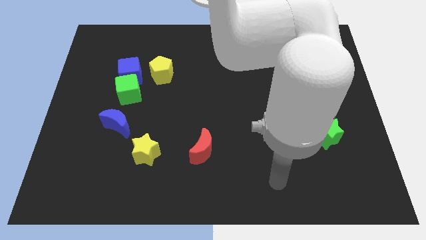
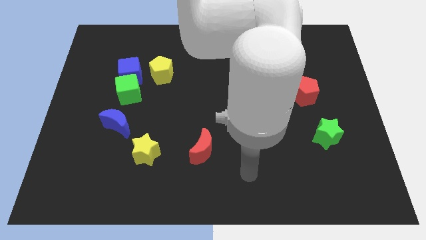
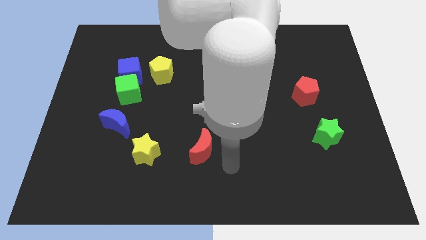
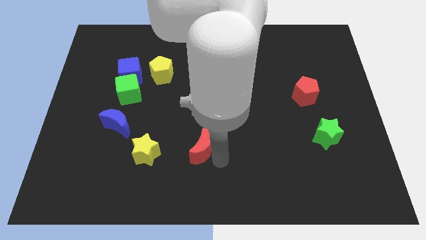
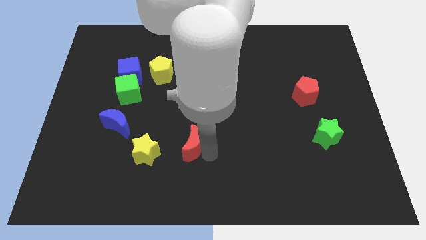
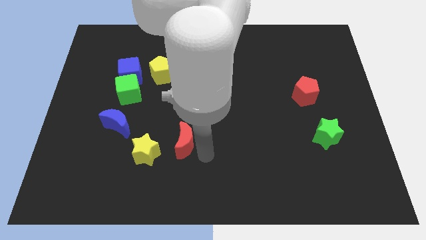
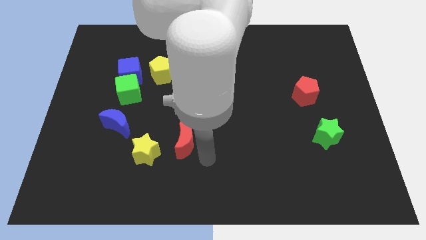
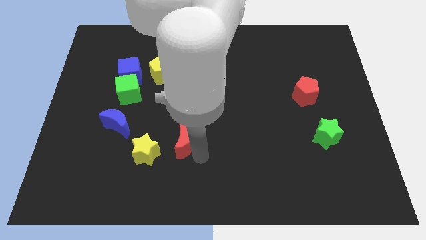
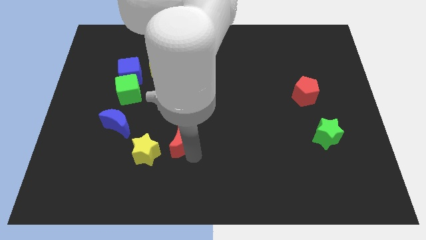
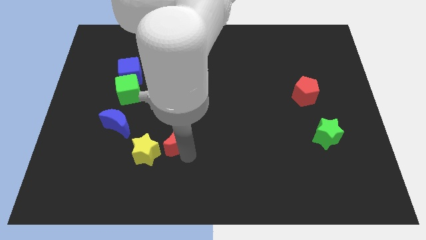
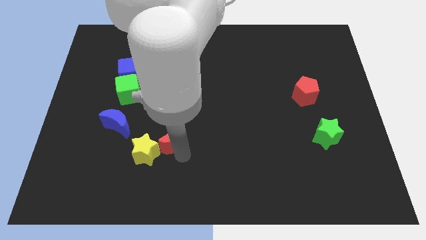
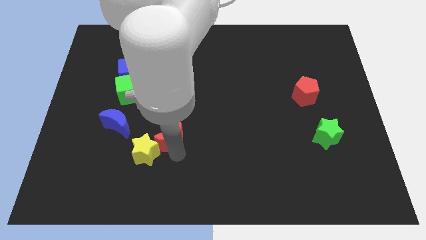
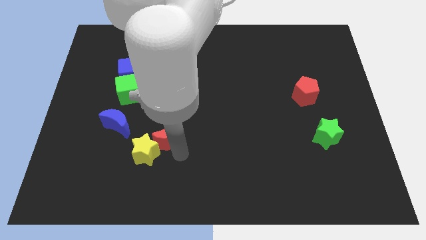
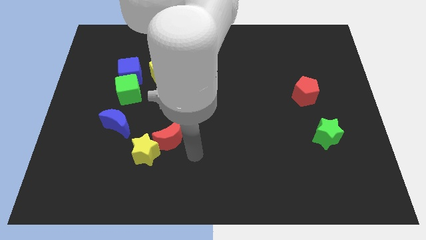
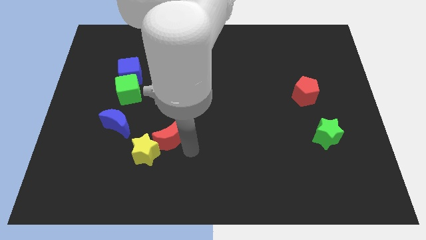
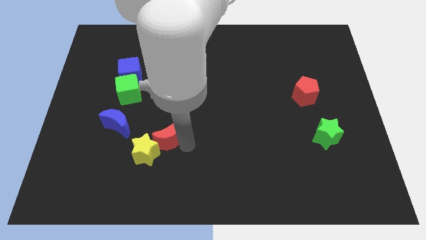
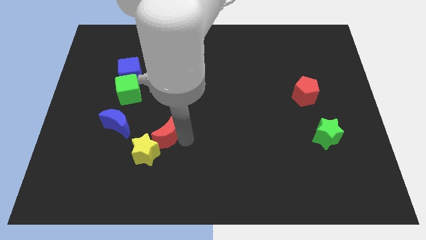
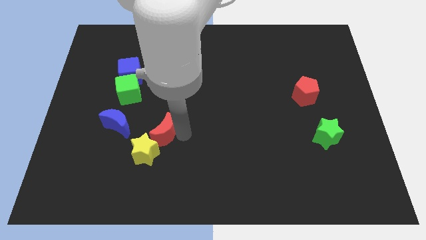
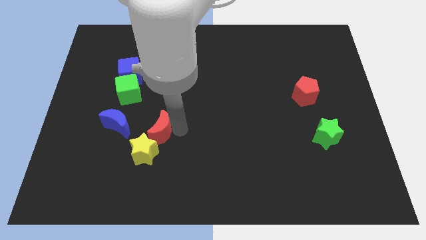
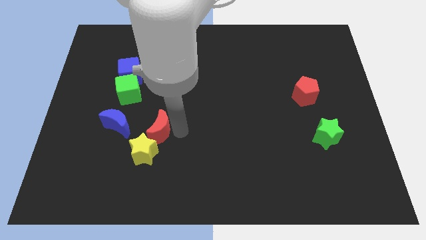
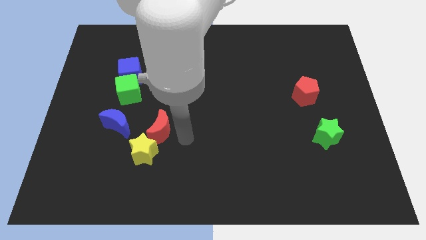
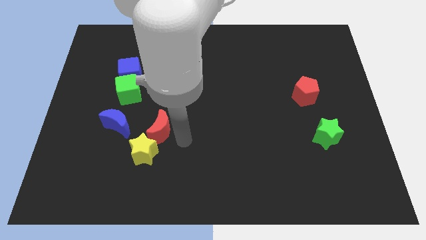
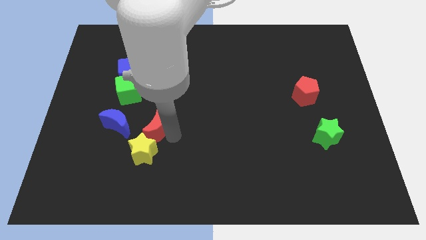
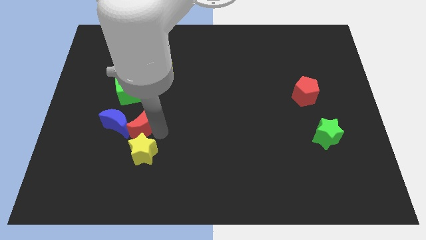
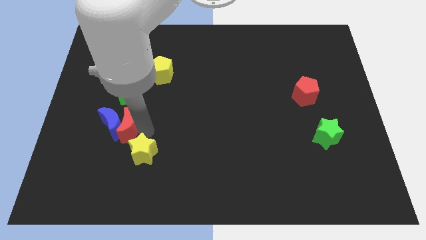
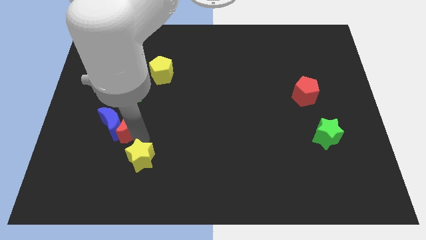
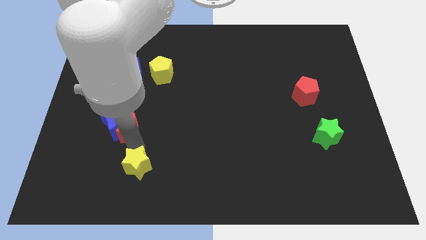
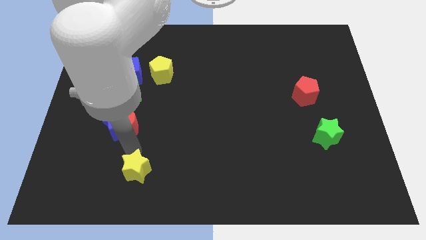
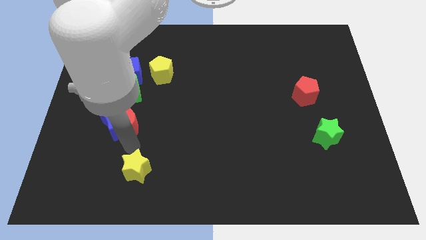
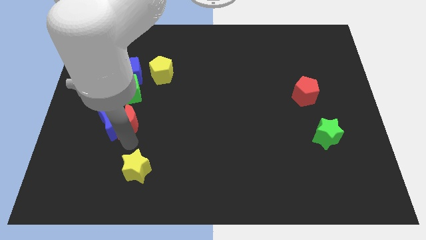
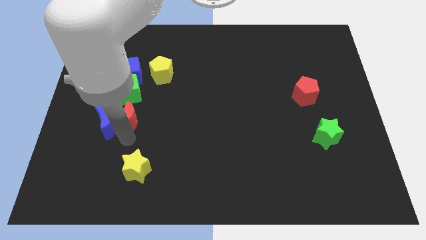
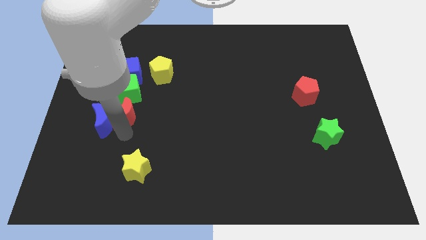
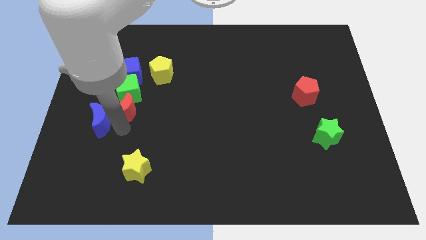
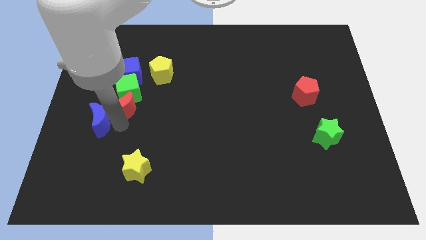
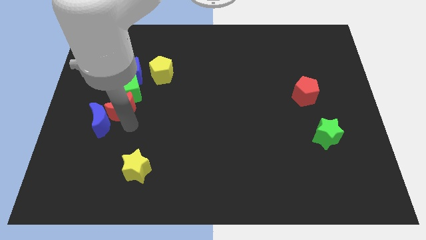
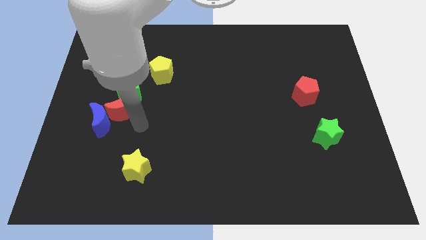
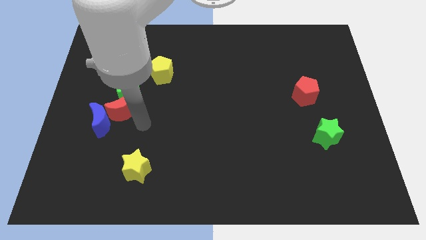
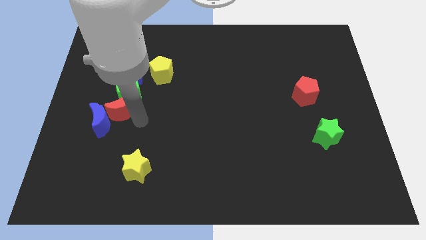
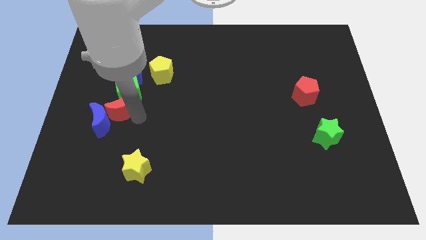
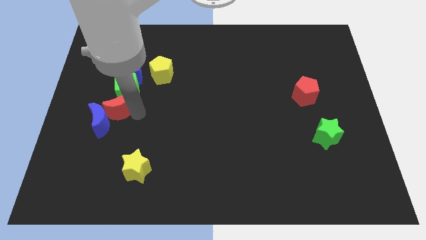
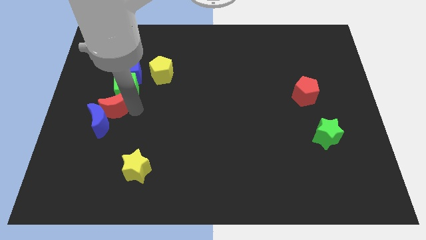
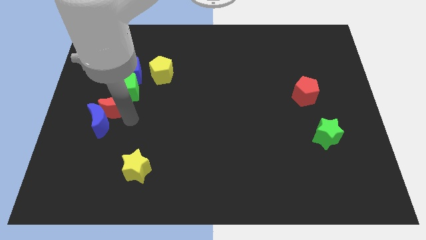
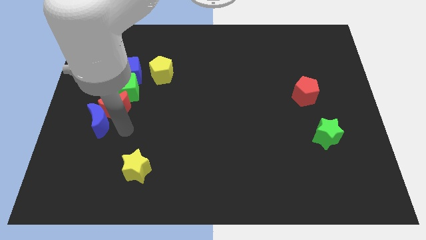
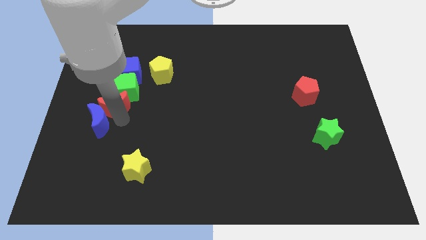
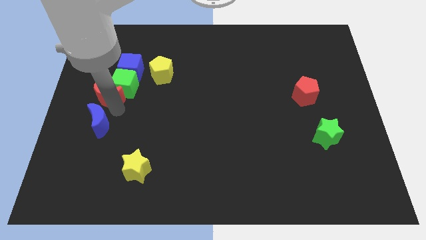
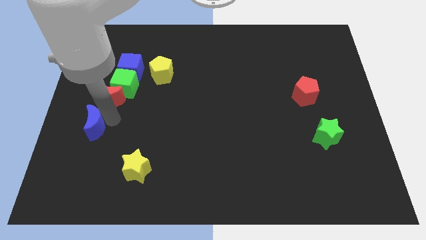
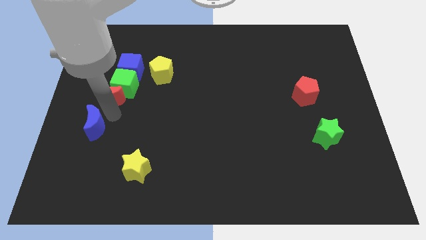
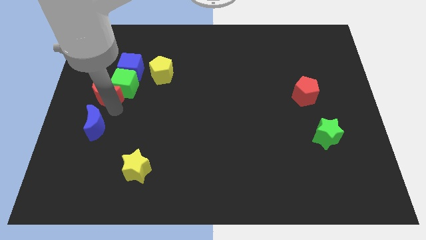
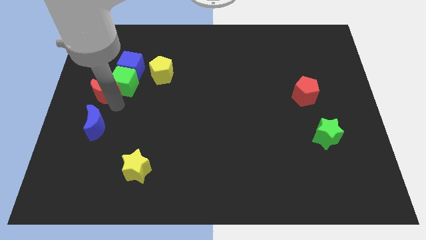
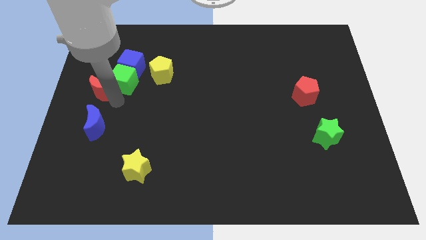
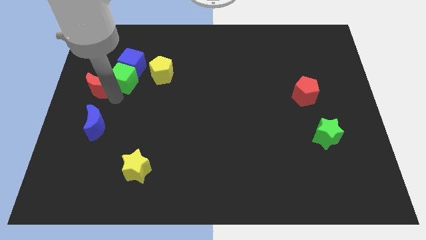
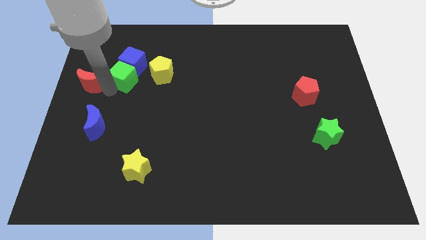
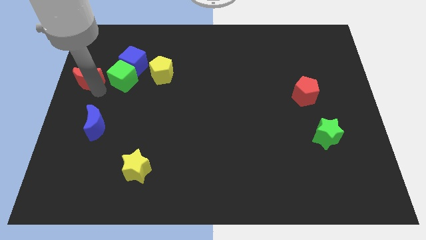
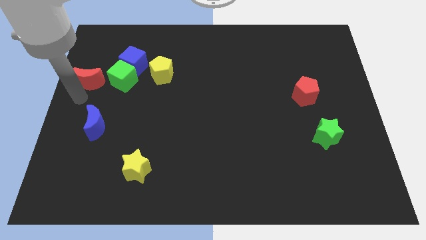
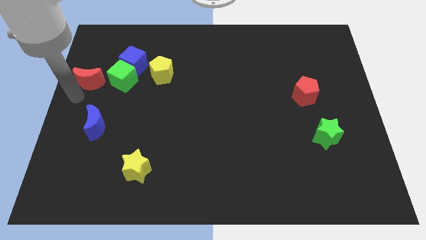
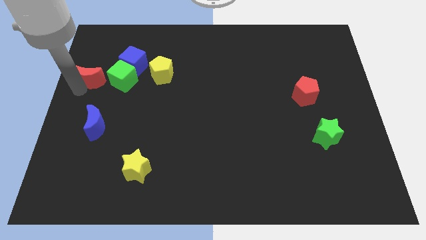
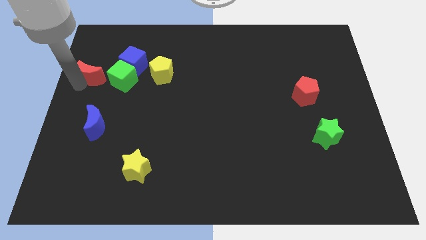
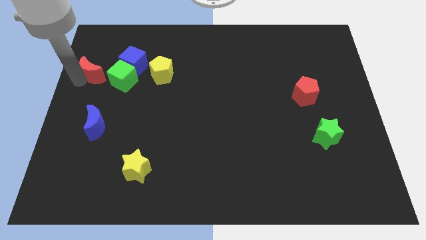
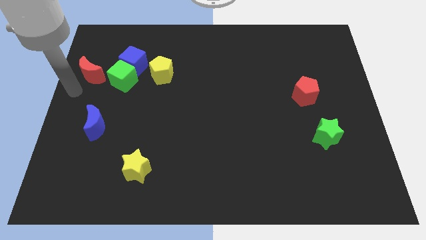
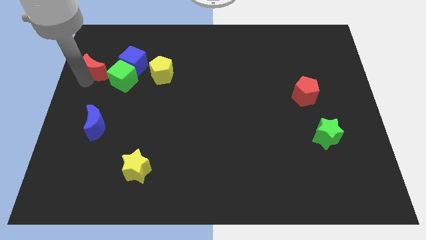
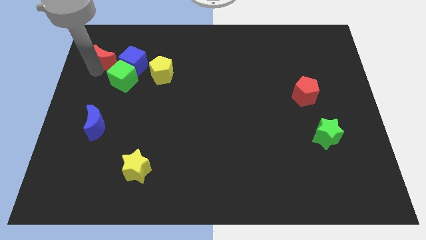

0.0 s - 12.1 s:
slide the red moon to the top left side of the blue cube

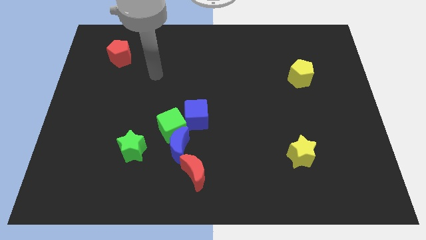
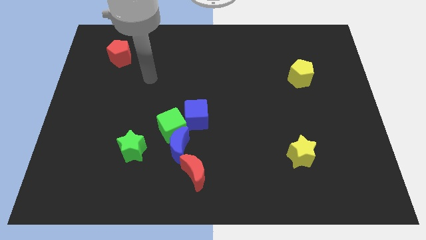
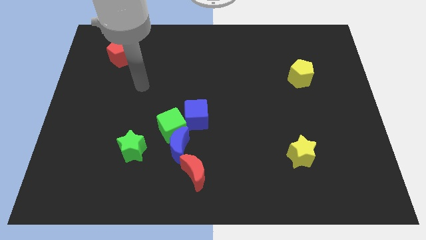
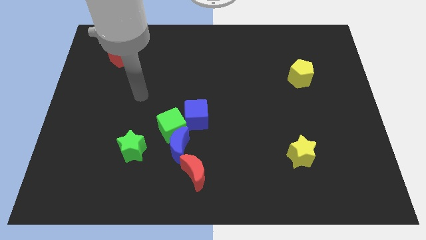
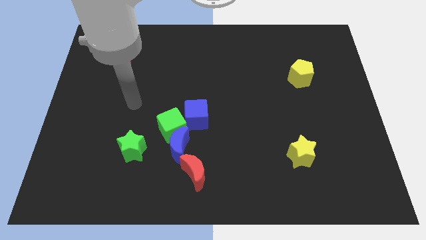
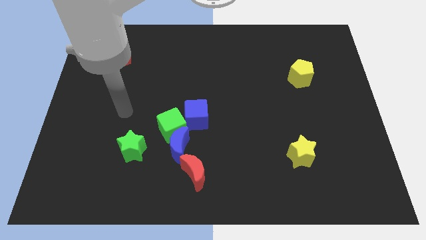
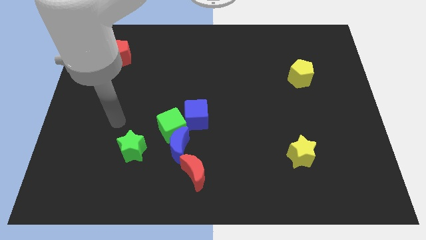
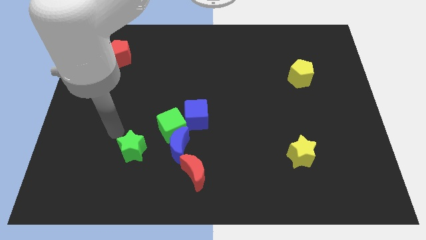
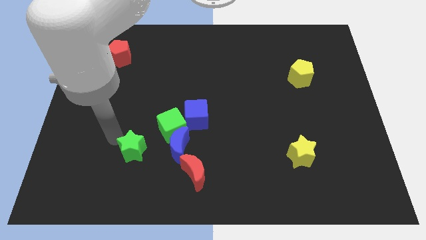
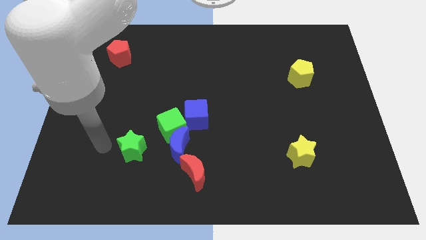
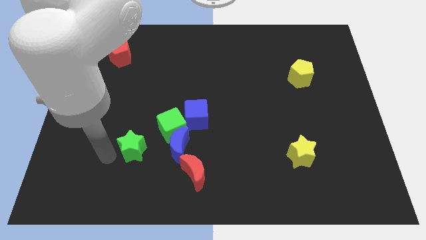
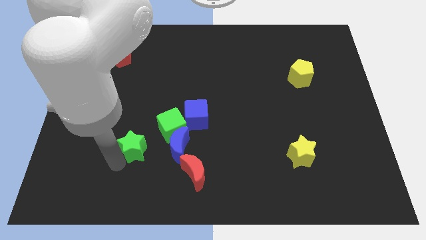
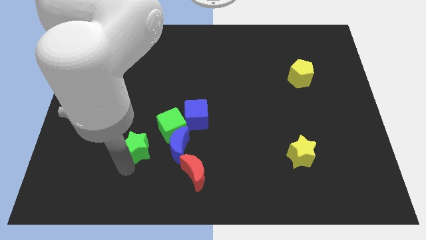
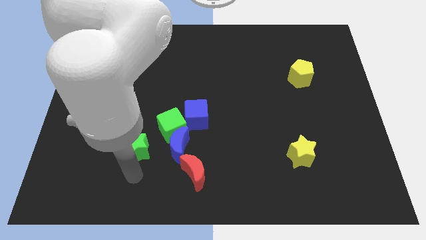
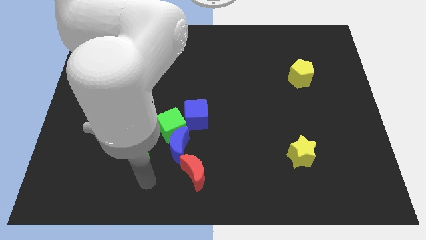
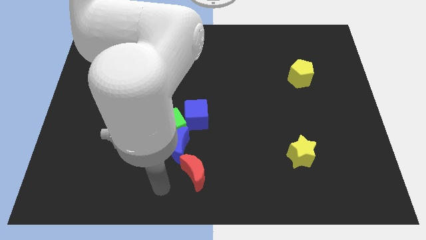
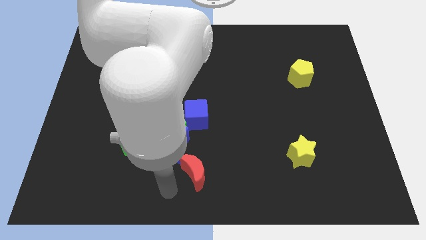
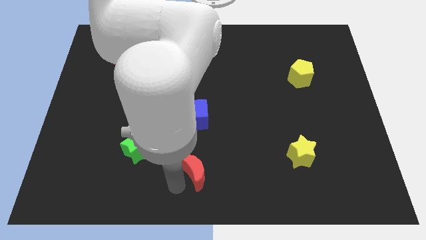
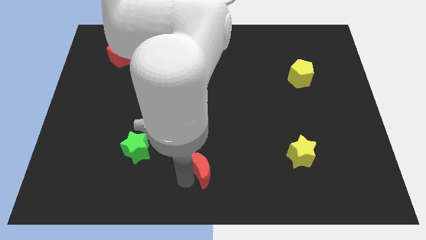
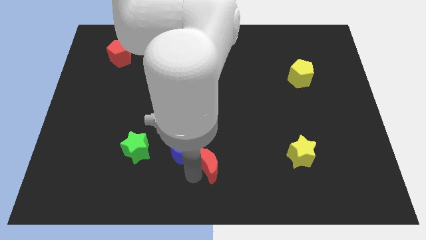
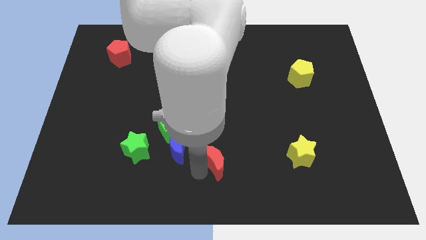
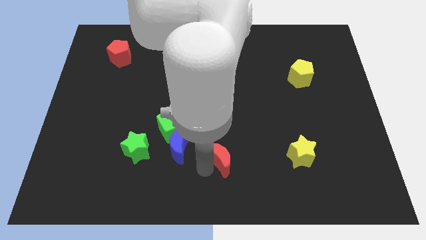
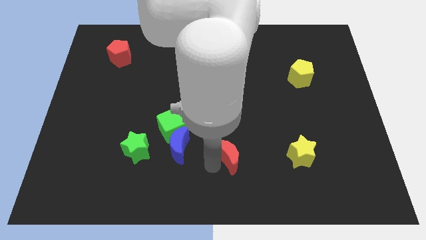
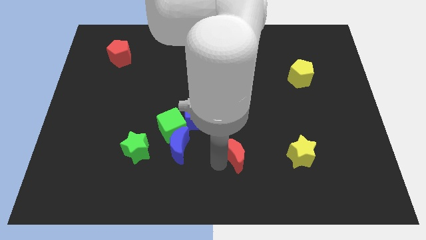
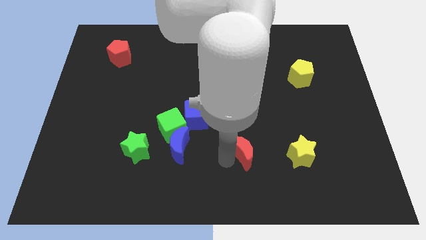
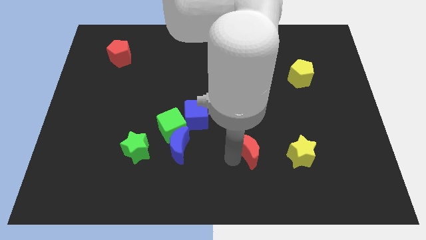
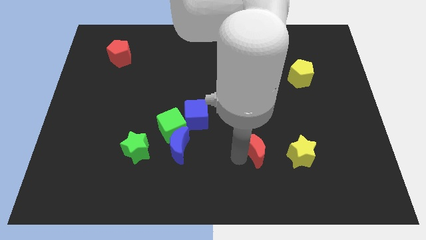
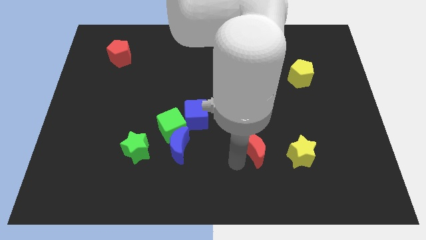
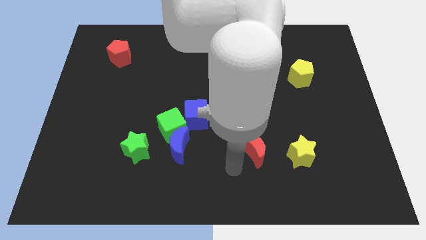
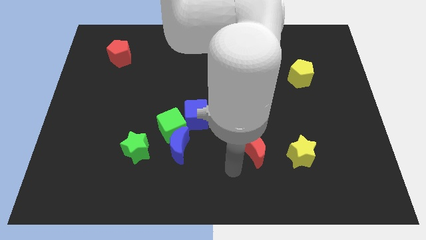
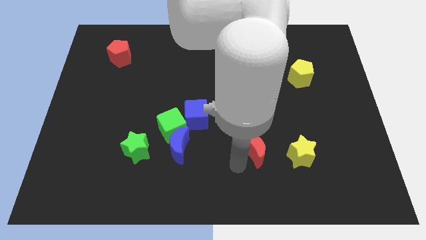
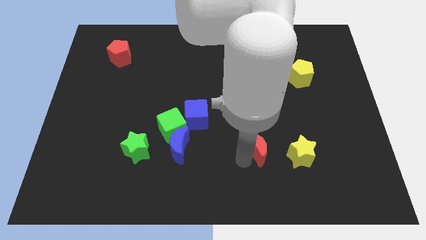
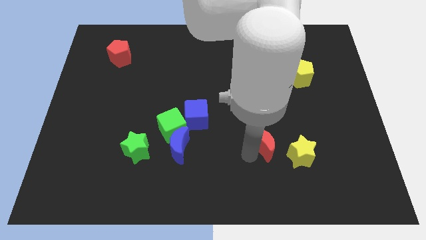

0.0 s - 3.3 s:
slide the red moon diagonally up and to the left of the yellow star
